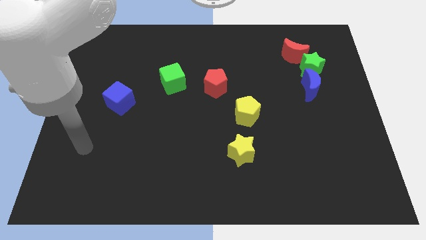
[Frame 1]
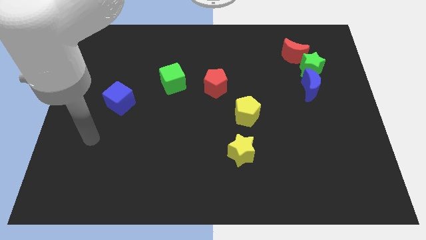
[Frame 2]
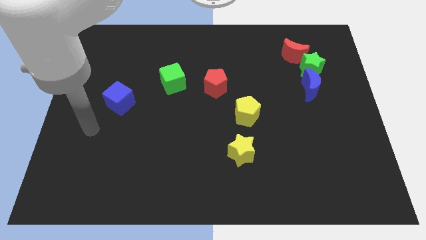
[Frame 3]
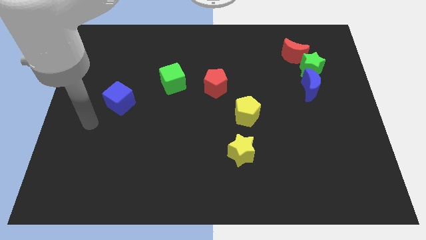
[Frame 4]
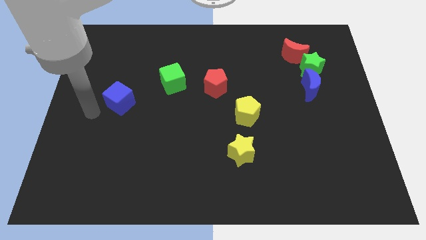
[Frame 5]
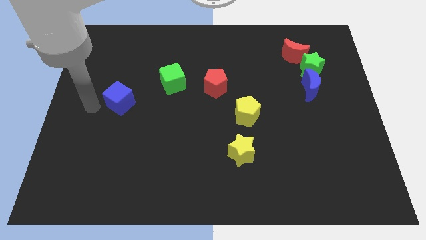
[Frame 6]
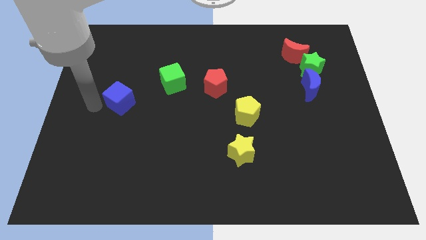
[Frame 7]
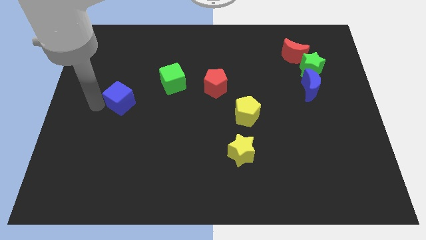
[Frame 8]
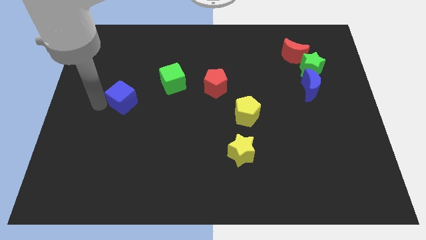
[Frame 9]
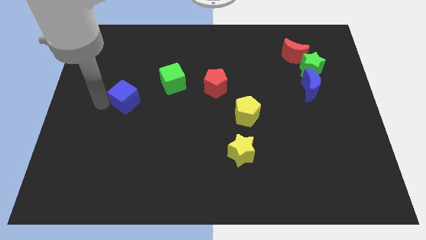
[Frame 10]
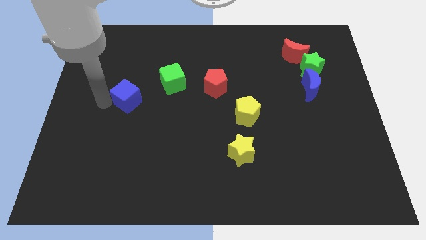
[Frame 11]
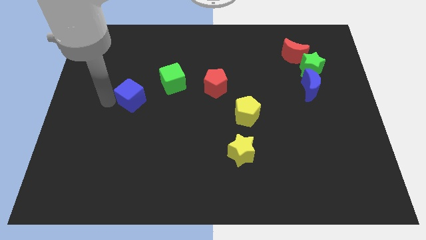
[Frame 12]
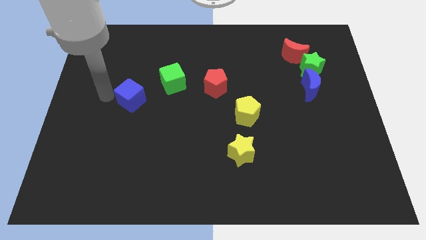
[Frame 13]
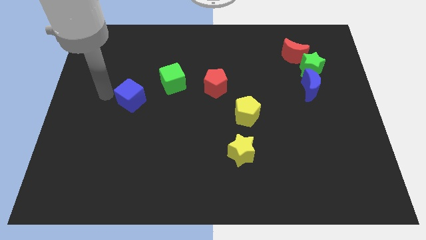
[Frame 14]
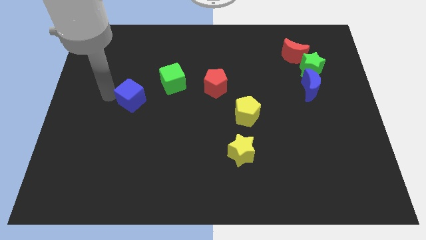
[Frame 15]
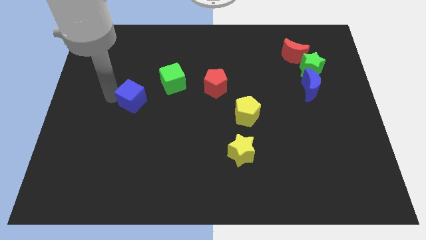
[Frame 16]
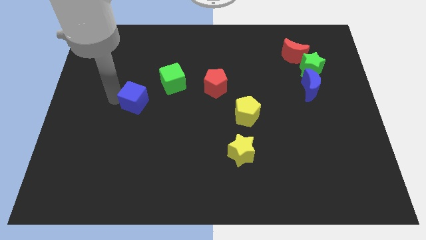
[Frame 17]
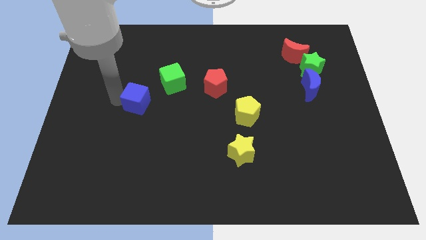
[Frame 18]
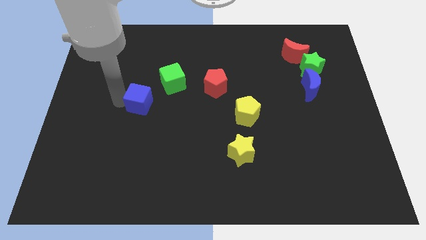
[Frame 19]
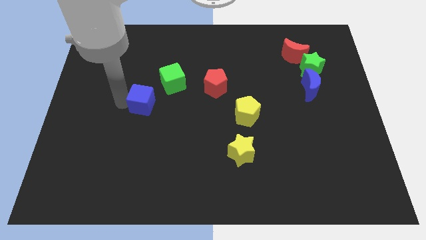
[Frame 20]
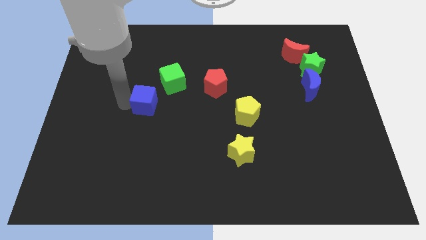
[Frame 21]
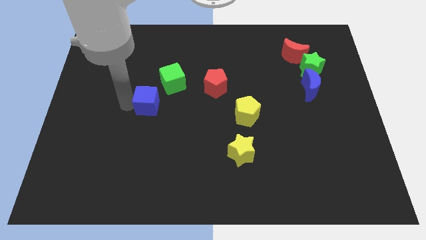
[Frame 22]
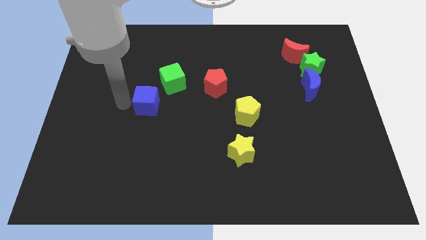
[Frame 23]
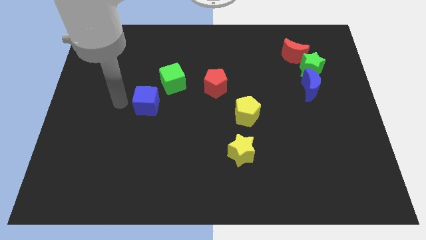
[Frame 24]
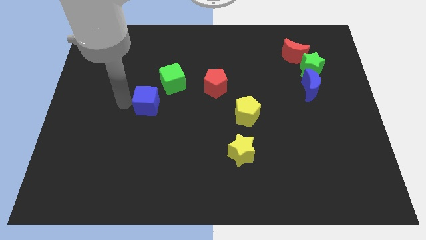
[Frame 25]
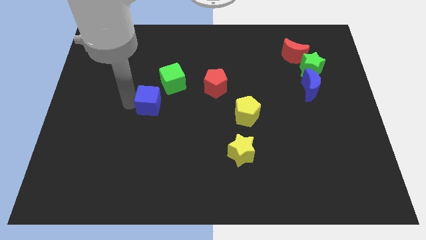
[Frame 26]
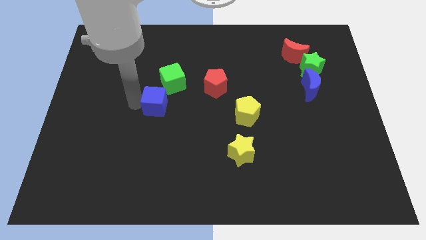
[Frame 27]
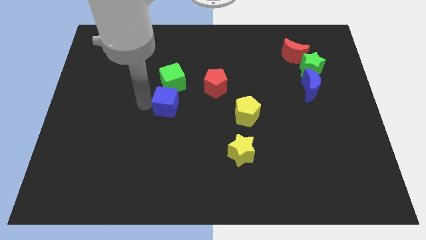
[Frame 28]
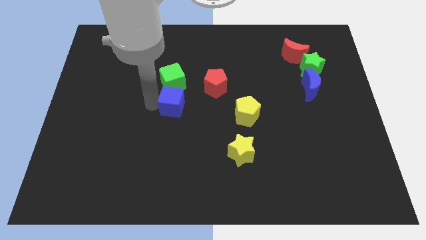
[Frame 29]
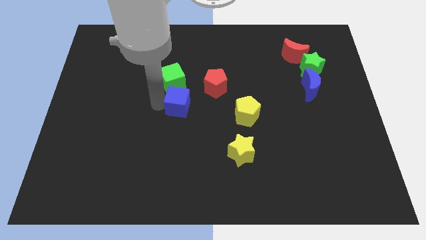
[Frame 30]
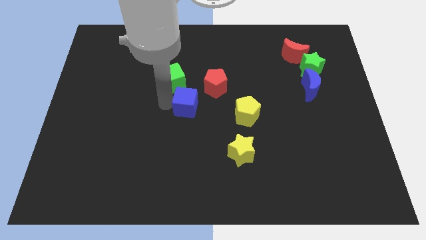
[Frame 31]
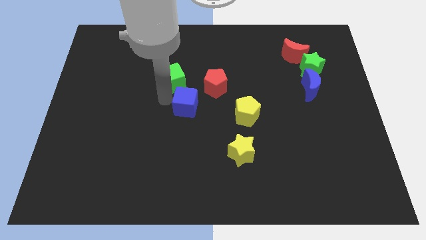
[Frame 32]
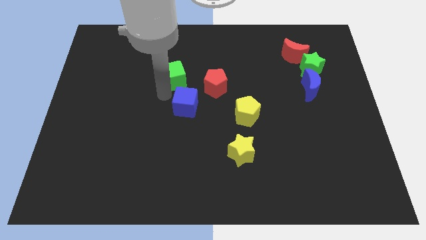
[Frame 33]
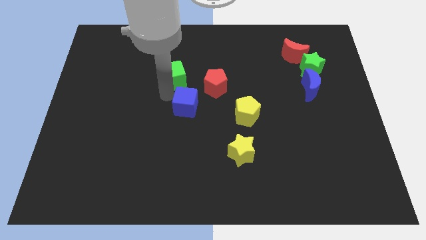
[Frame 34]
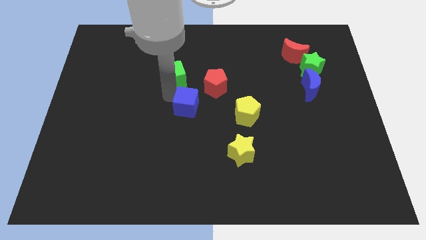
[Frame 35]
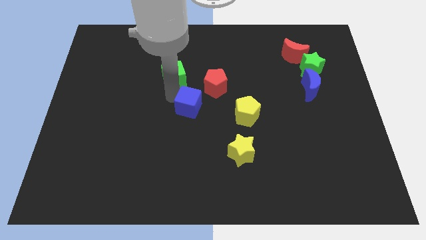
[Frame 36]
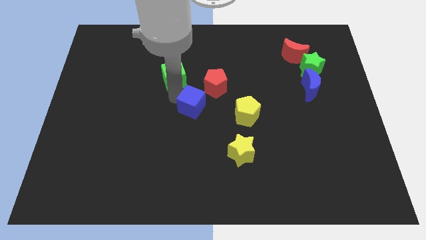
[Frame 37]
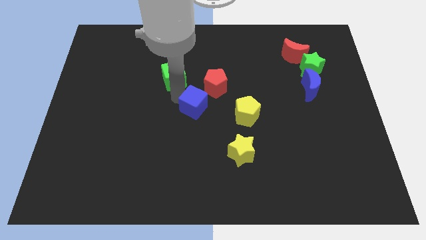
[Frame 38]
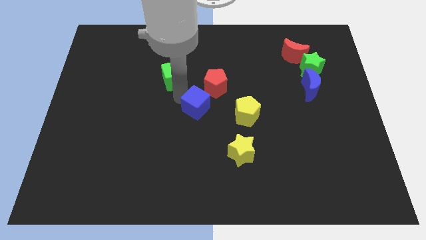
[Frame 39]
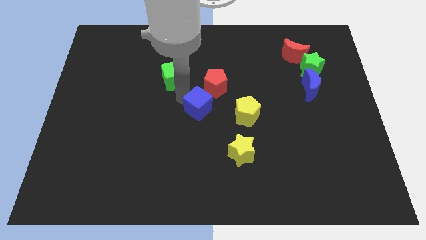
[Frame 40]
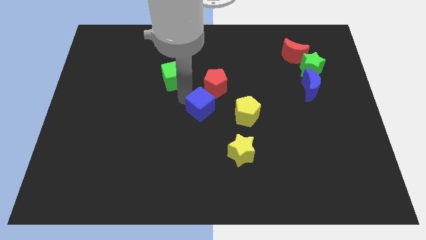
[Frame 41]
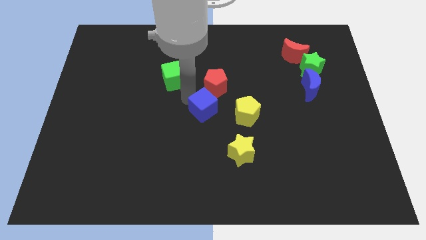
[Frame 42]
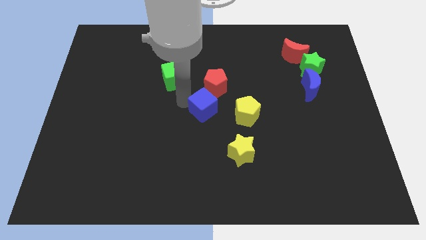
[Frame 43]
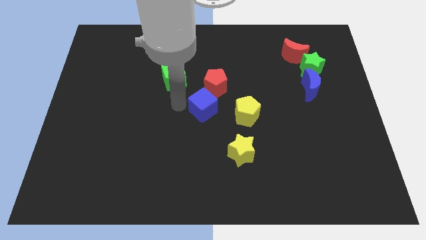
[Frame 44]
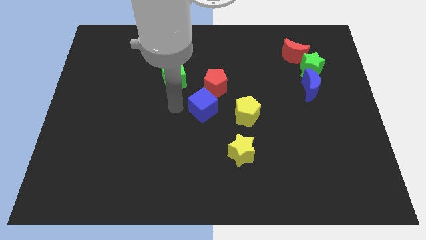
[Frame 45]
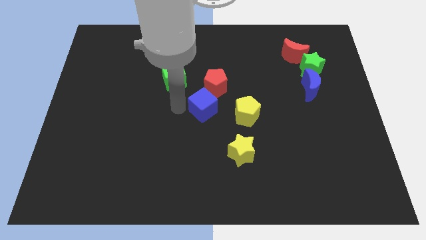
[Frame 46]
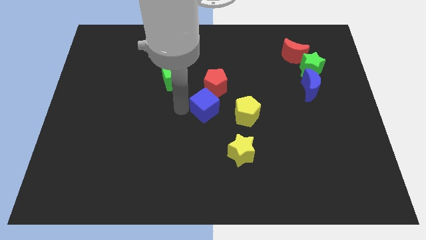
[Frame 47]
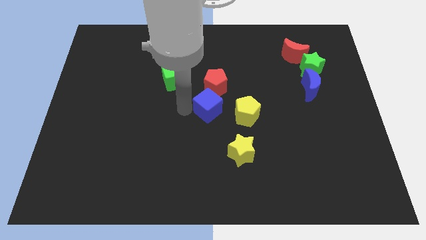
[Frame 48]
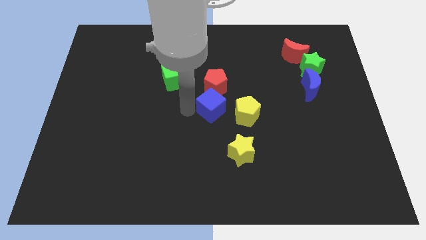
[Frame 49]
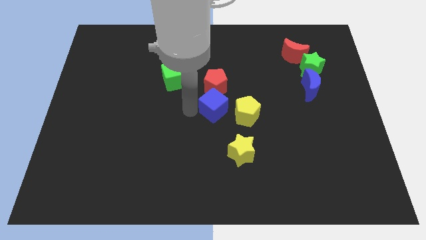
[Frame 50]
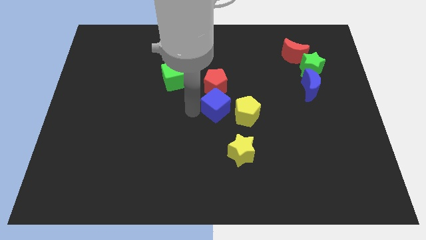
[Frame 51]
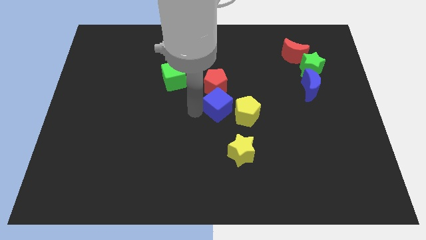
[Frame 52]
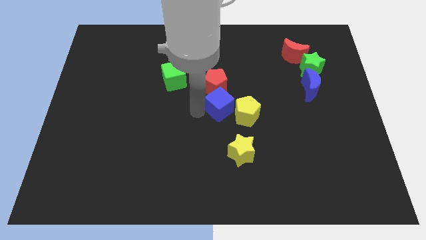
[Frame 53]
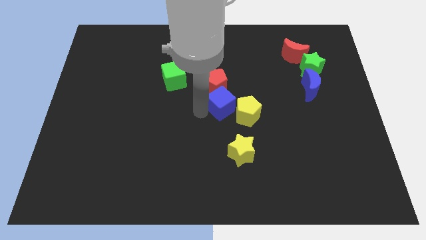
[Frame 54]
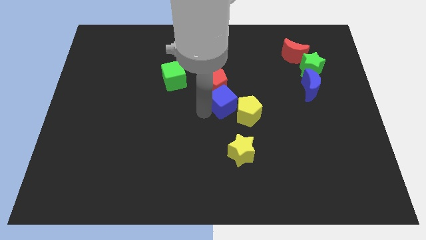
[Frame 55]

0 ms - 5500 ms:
push the blue cube to the yellow pentagon

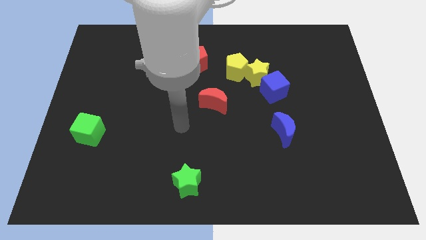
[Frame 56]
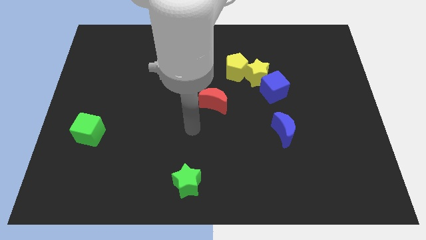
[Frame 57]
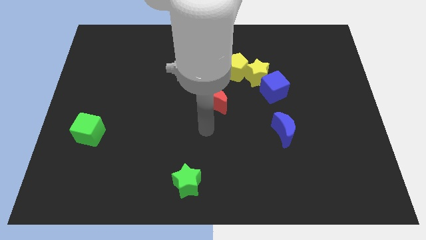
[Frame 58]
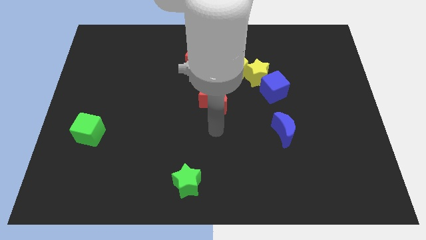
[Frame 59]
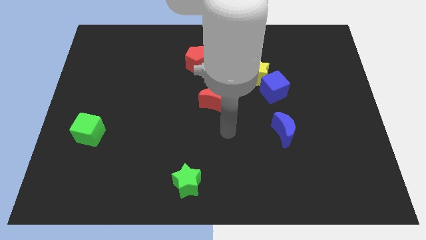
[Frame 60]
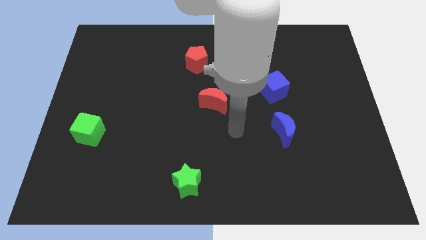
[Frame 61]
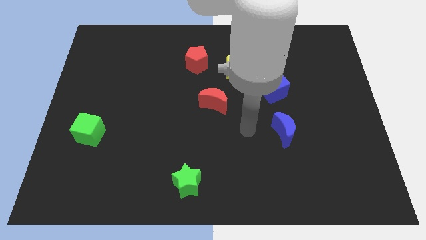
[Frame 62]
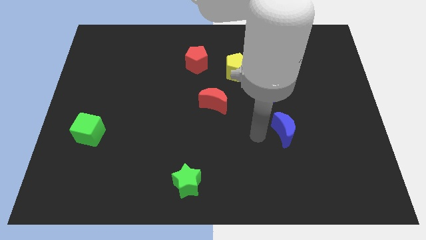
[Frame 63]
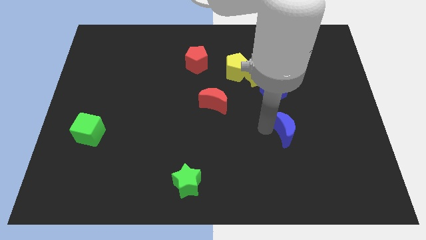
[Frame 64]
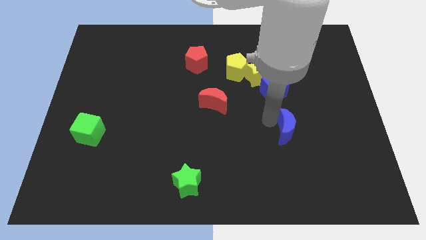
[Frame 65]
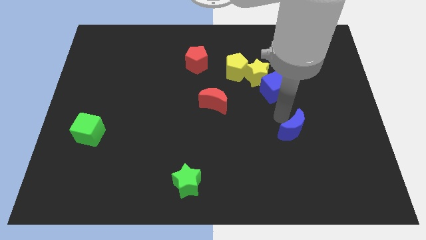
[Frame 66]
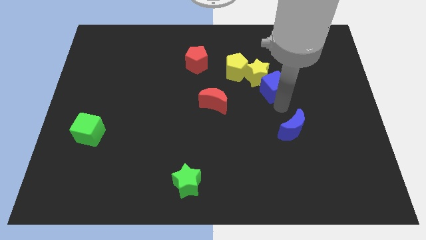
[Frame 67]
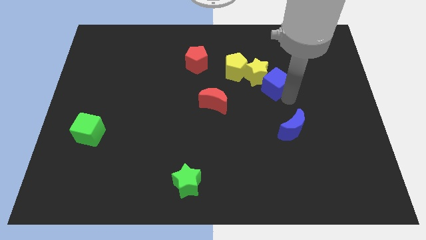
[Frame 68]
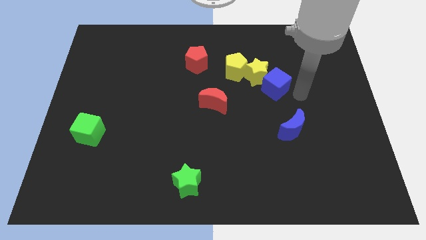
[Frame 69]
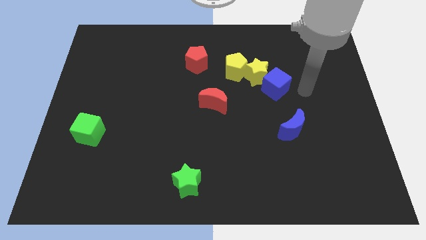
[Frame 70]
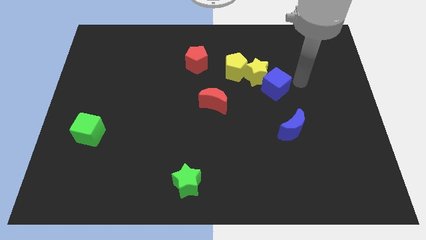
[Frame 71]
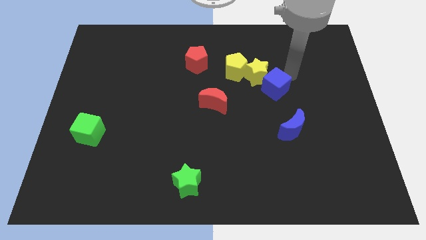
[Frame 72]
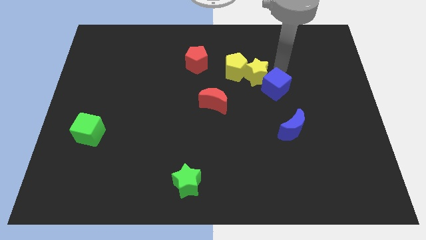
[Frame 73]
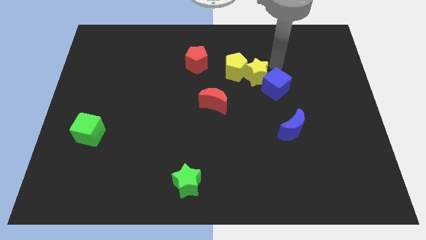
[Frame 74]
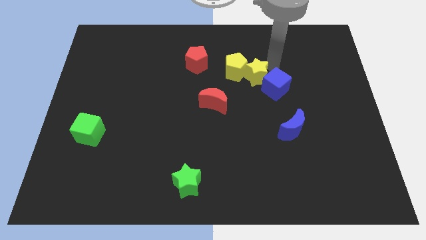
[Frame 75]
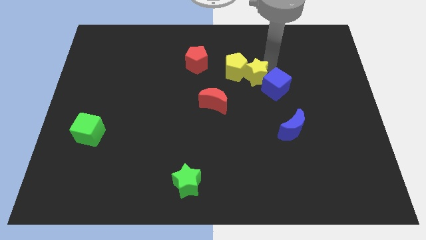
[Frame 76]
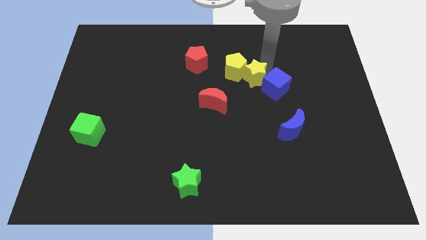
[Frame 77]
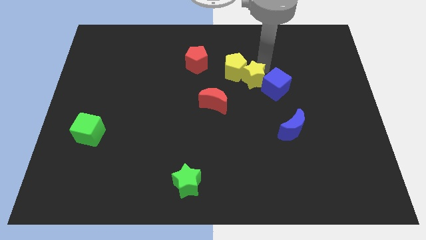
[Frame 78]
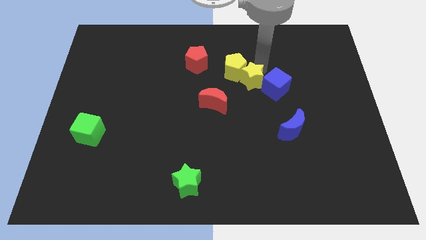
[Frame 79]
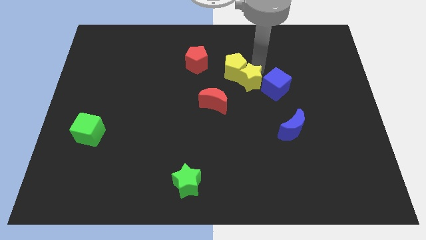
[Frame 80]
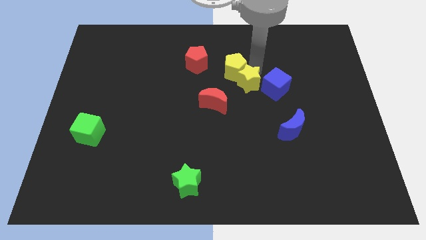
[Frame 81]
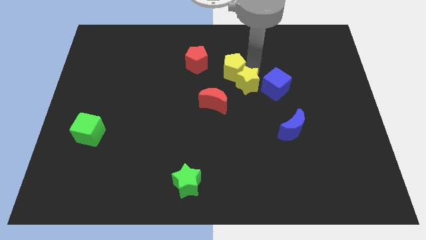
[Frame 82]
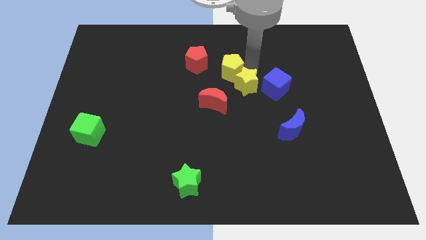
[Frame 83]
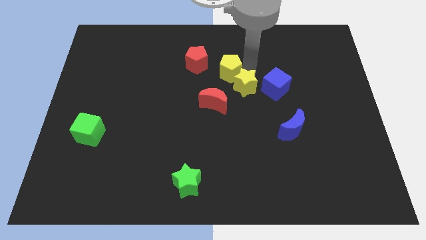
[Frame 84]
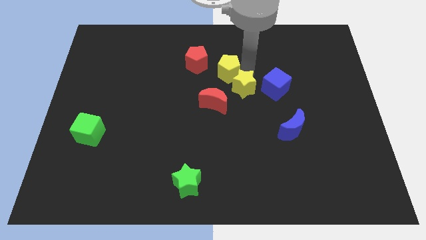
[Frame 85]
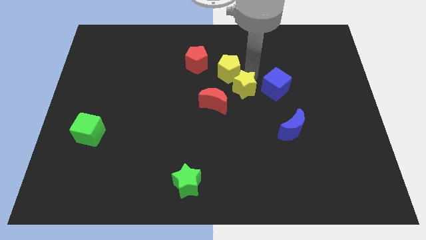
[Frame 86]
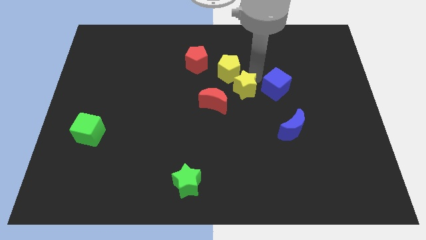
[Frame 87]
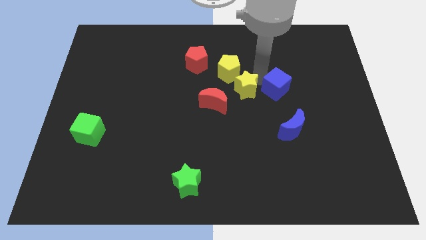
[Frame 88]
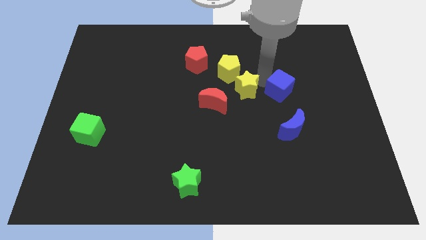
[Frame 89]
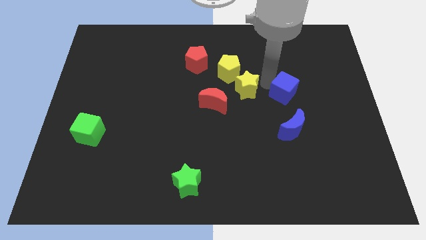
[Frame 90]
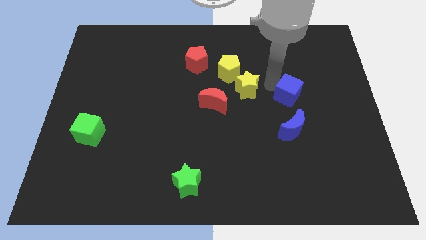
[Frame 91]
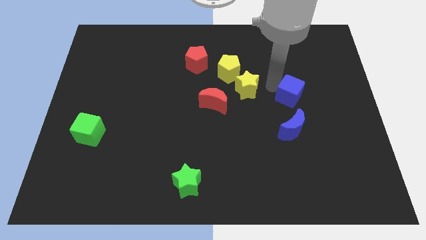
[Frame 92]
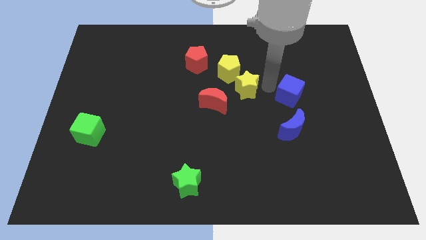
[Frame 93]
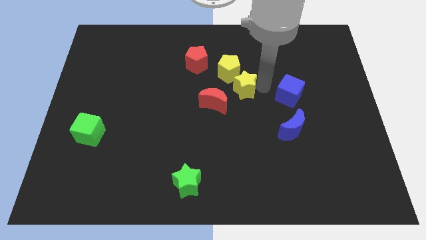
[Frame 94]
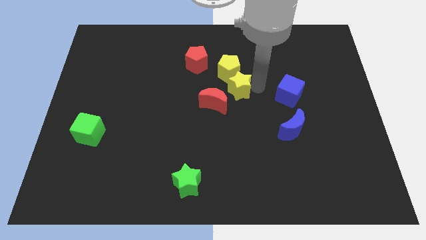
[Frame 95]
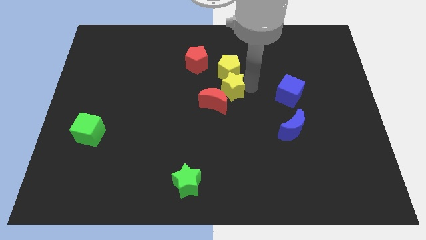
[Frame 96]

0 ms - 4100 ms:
move the yellow star to the red moon
